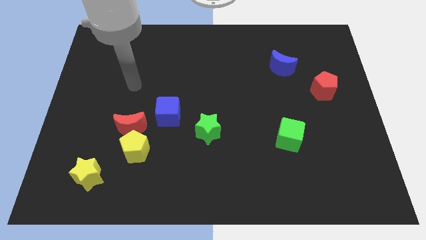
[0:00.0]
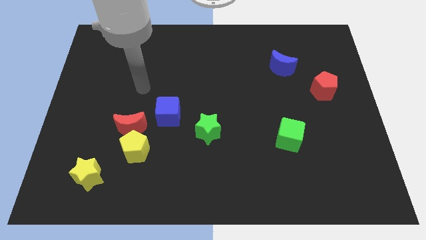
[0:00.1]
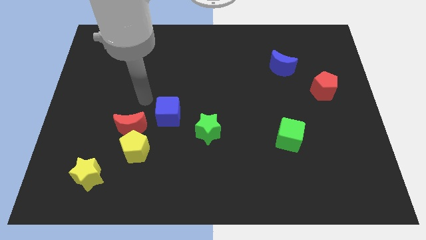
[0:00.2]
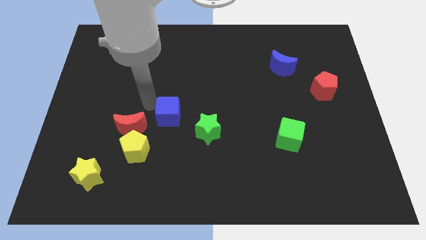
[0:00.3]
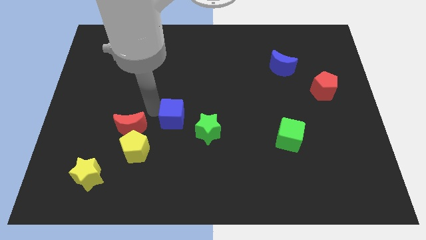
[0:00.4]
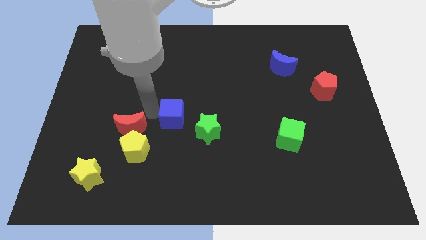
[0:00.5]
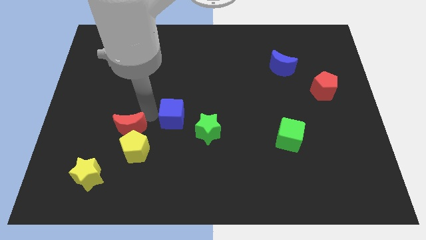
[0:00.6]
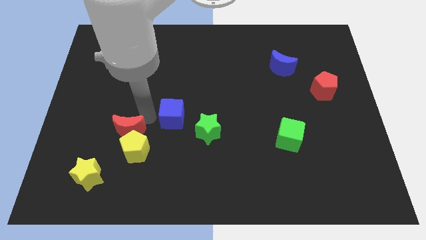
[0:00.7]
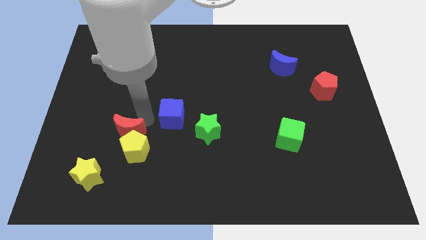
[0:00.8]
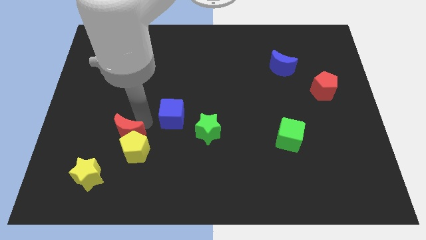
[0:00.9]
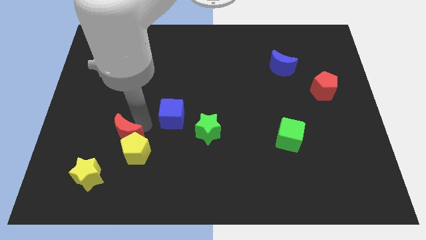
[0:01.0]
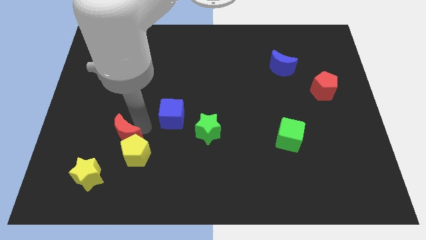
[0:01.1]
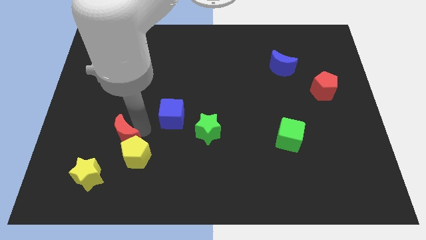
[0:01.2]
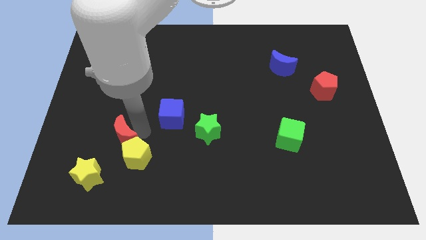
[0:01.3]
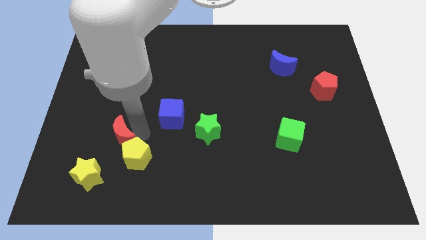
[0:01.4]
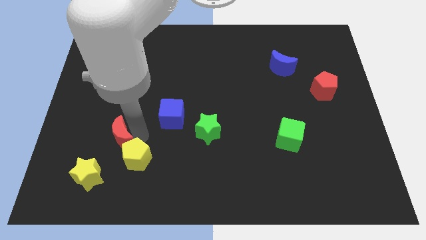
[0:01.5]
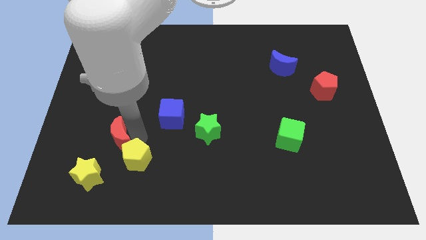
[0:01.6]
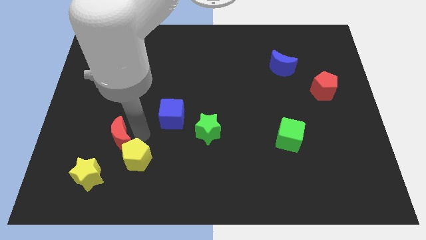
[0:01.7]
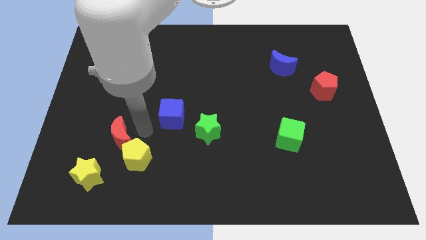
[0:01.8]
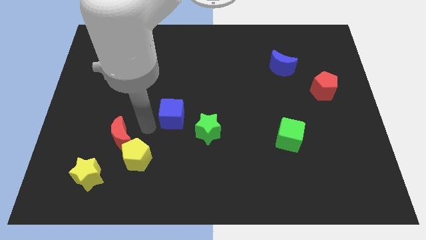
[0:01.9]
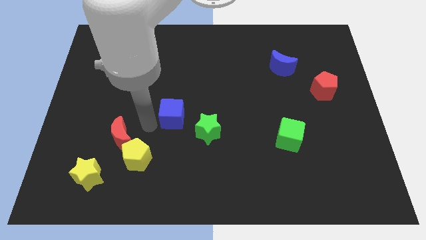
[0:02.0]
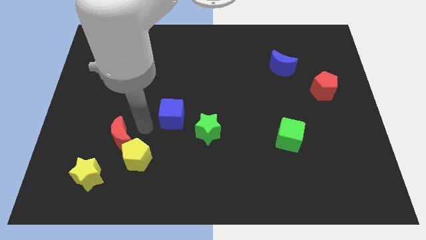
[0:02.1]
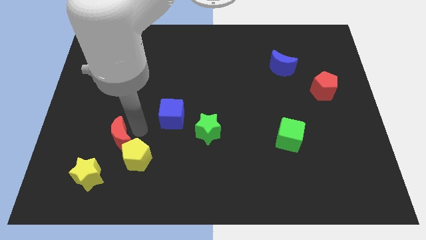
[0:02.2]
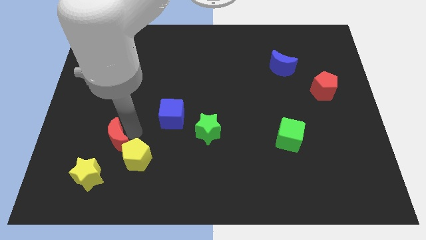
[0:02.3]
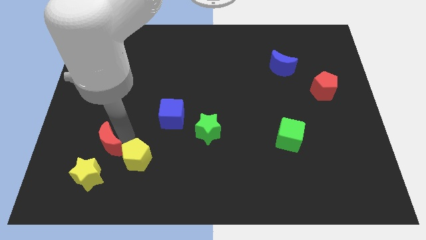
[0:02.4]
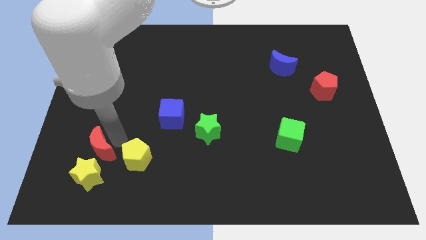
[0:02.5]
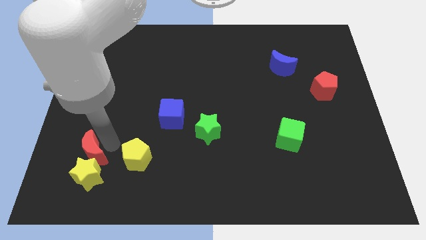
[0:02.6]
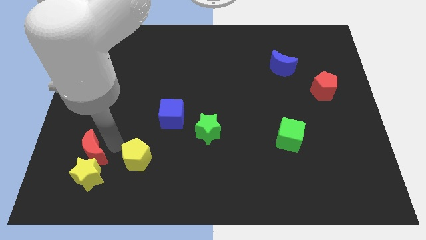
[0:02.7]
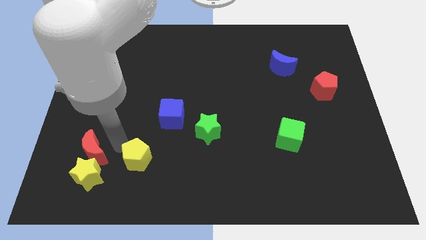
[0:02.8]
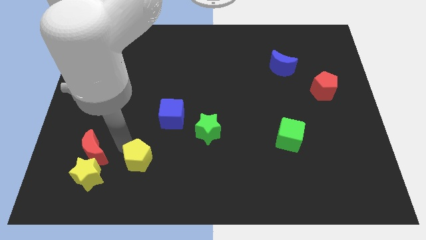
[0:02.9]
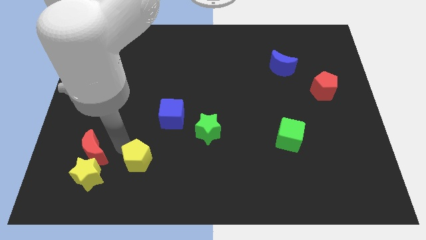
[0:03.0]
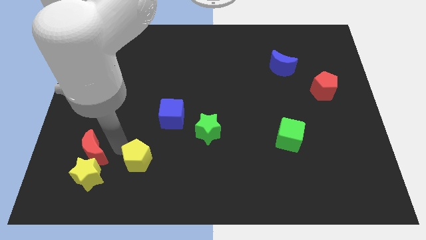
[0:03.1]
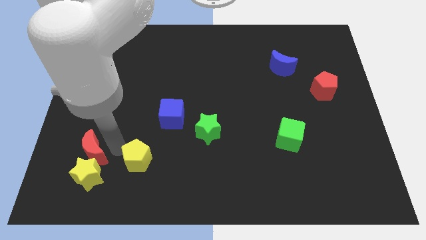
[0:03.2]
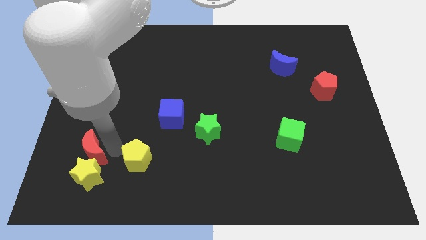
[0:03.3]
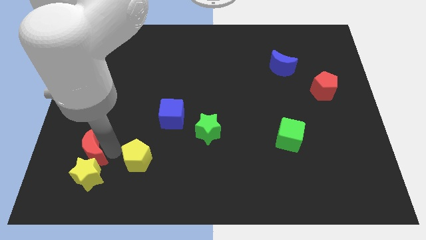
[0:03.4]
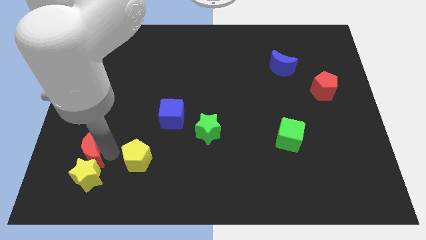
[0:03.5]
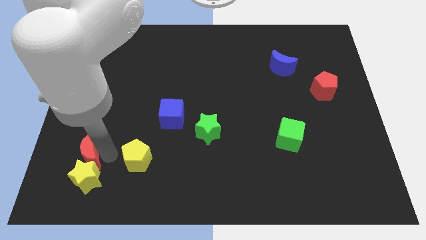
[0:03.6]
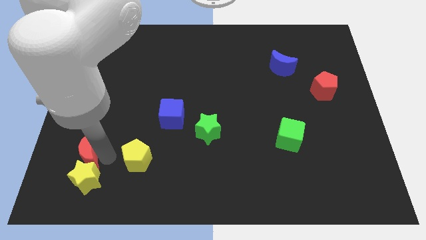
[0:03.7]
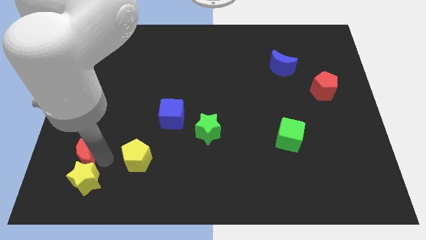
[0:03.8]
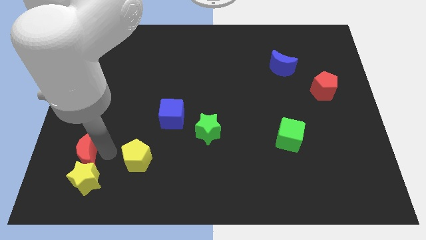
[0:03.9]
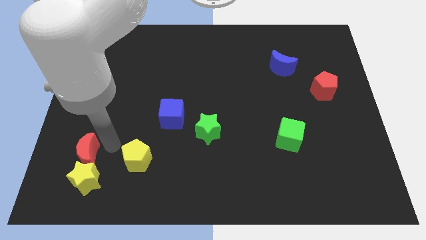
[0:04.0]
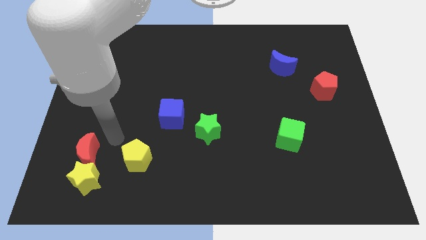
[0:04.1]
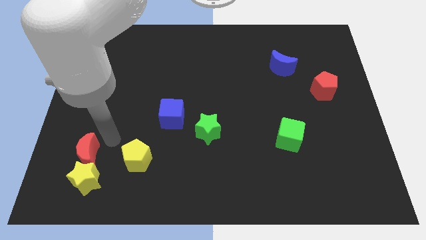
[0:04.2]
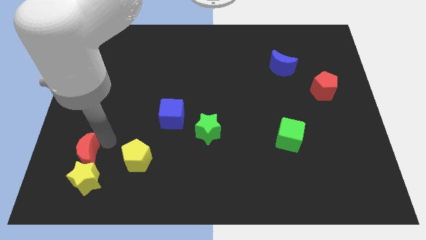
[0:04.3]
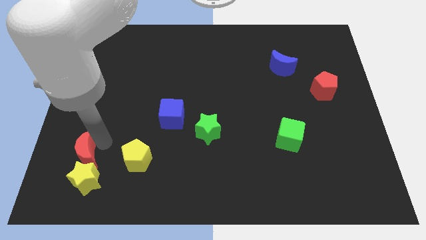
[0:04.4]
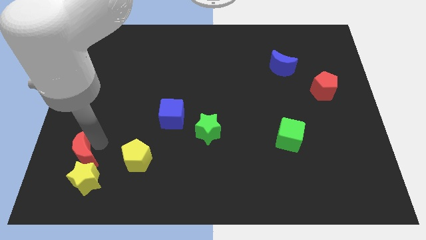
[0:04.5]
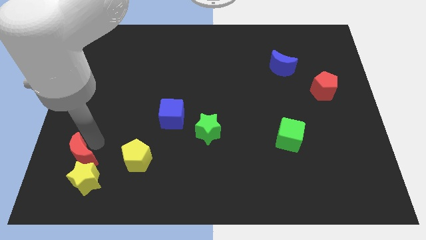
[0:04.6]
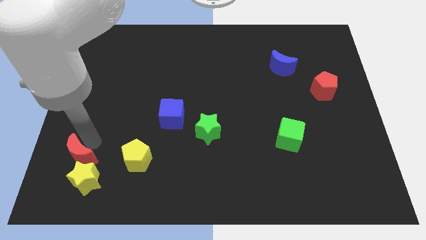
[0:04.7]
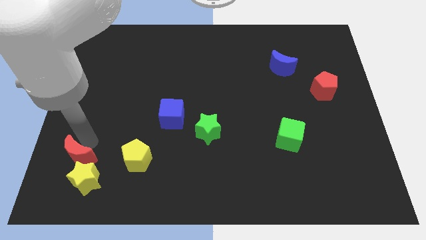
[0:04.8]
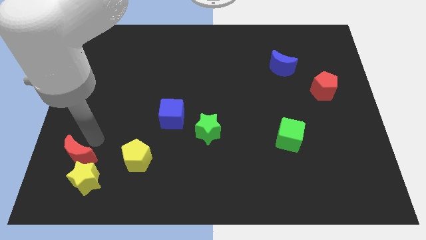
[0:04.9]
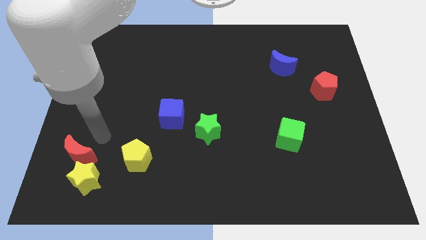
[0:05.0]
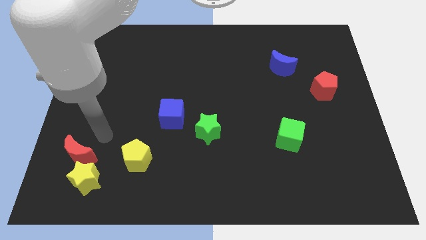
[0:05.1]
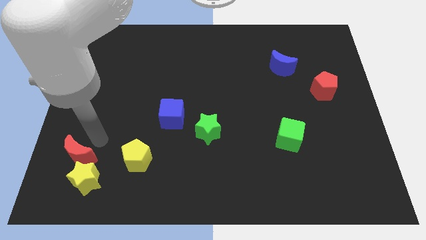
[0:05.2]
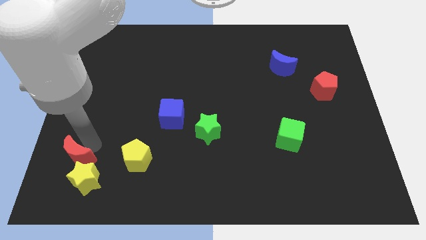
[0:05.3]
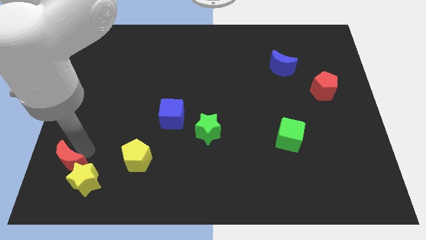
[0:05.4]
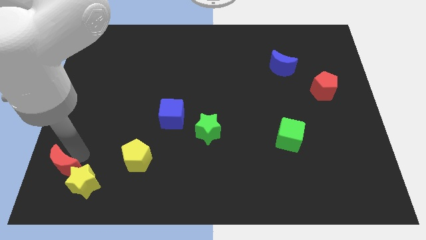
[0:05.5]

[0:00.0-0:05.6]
move the red moon to the bottom left corner

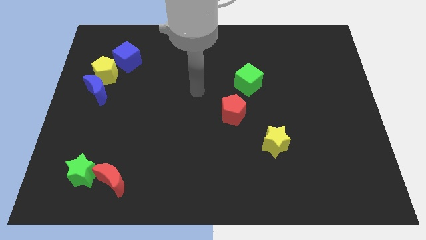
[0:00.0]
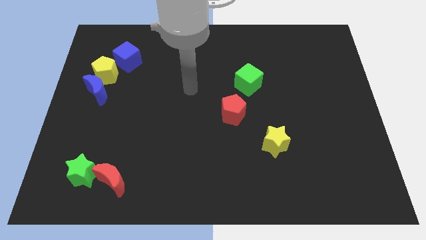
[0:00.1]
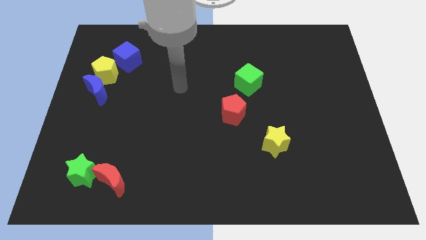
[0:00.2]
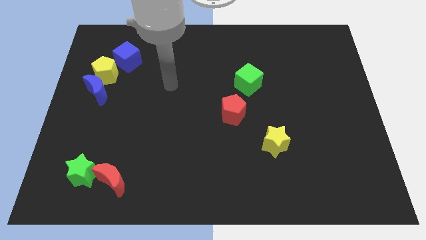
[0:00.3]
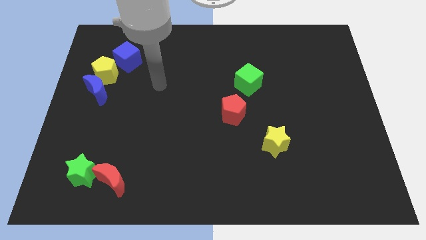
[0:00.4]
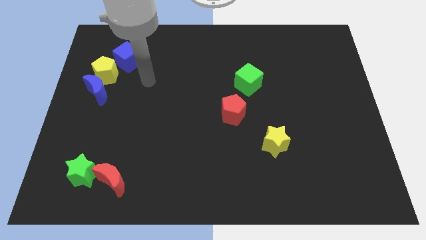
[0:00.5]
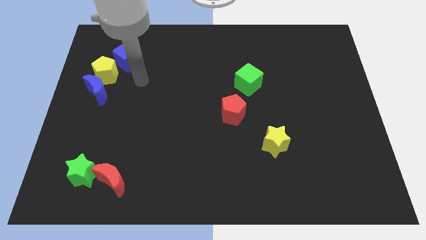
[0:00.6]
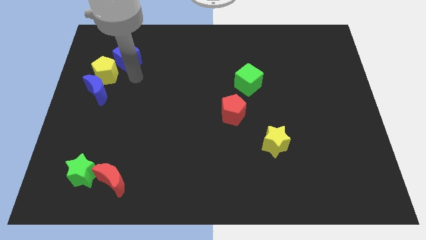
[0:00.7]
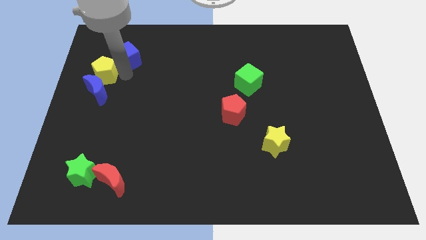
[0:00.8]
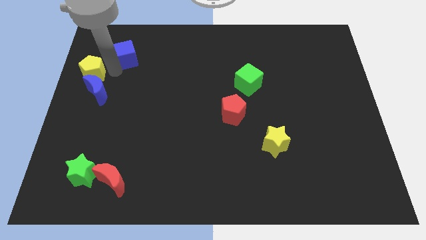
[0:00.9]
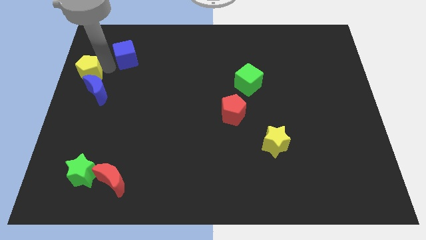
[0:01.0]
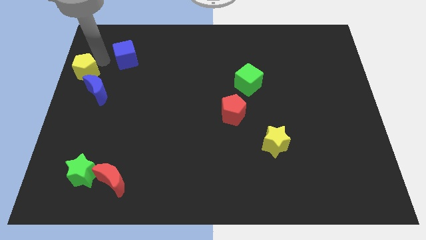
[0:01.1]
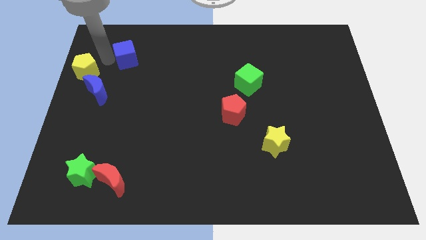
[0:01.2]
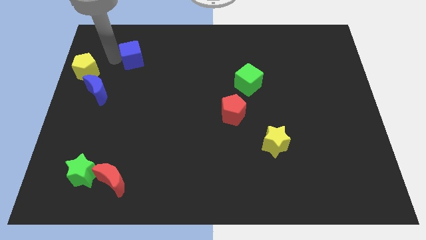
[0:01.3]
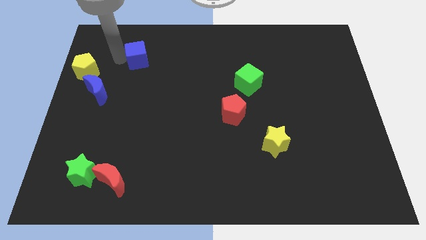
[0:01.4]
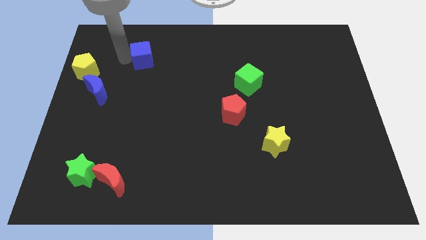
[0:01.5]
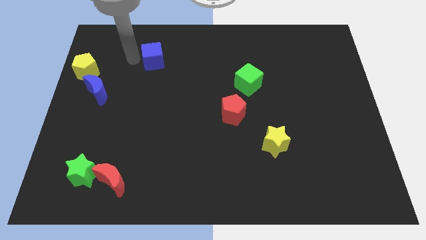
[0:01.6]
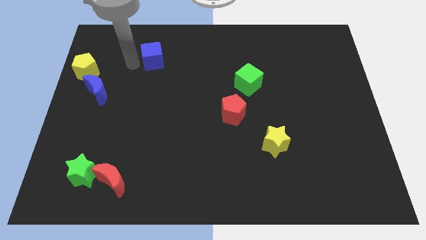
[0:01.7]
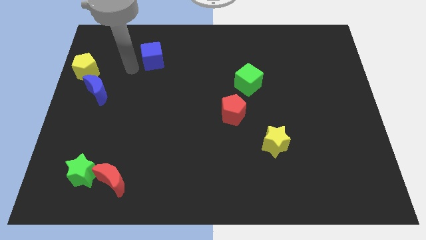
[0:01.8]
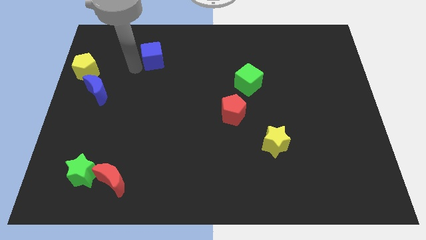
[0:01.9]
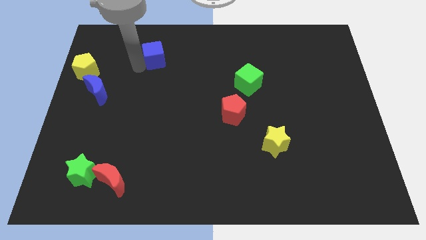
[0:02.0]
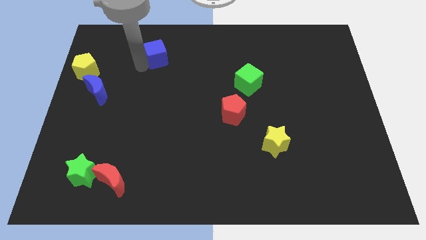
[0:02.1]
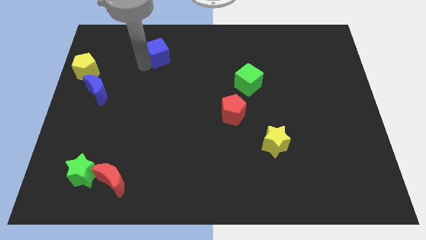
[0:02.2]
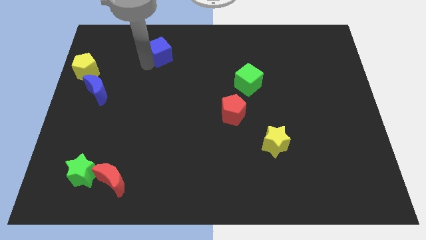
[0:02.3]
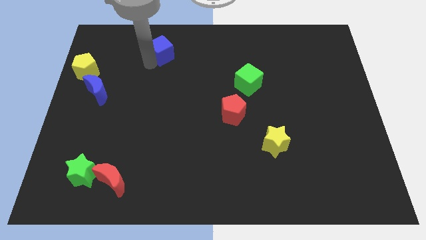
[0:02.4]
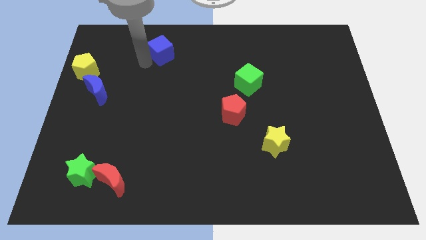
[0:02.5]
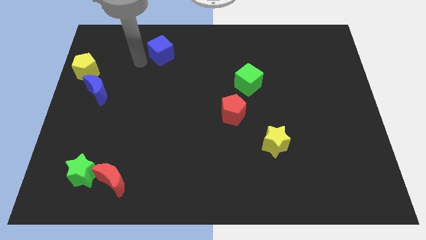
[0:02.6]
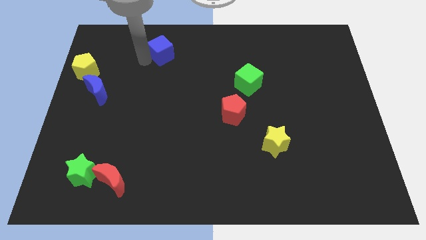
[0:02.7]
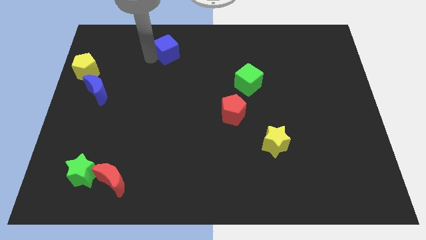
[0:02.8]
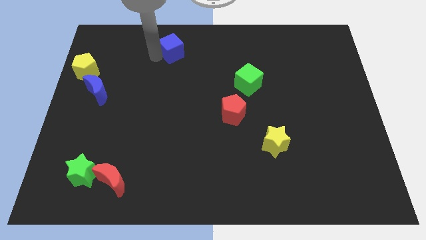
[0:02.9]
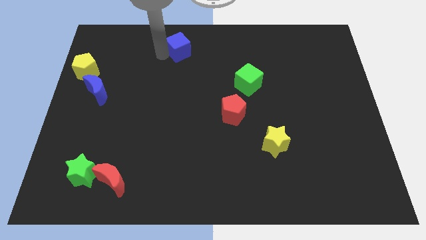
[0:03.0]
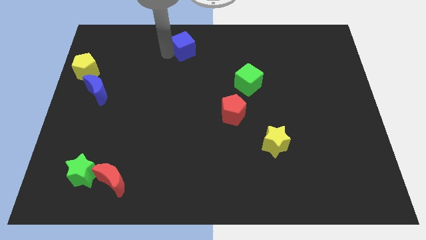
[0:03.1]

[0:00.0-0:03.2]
push the blue cube to the towards your base
